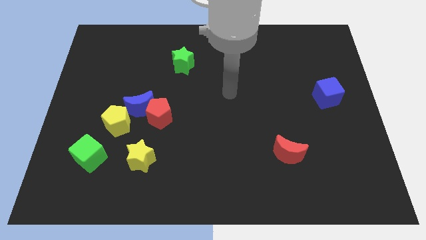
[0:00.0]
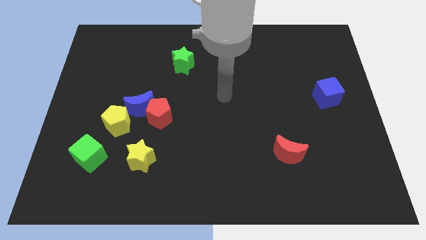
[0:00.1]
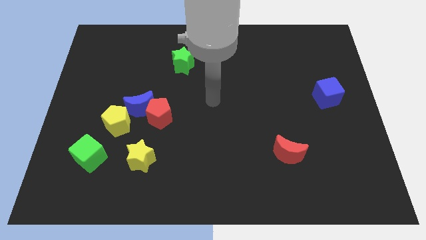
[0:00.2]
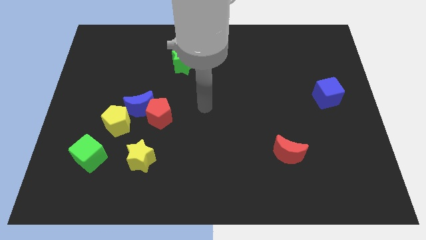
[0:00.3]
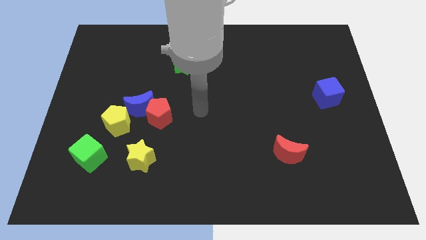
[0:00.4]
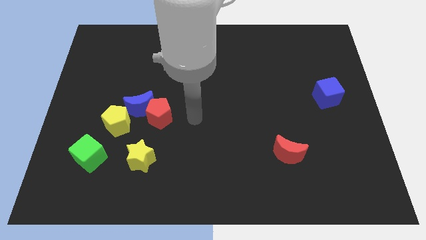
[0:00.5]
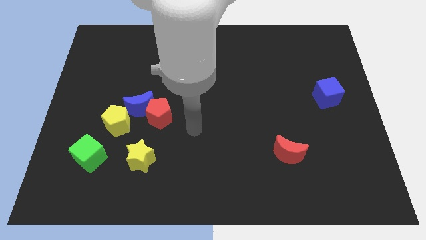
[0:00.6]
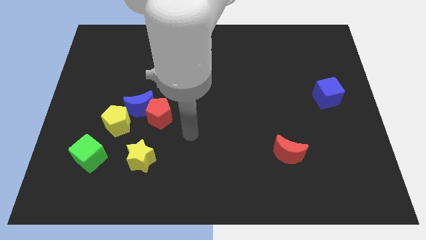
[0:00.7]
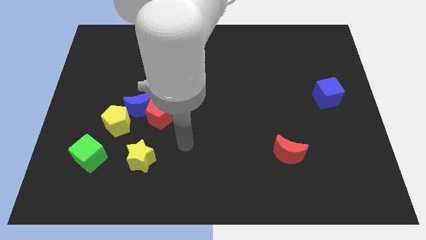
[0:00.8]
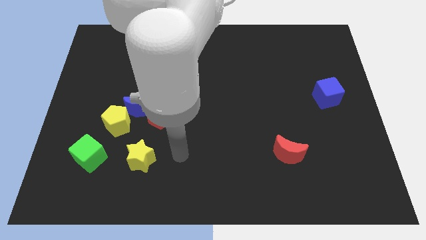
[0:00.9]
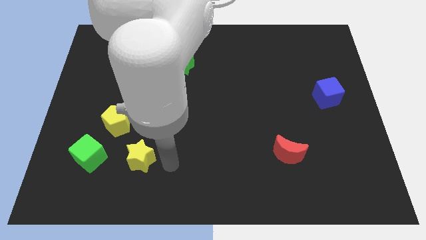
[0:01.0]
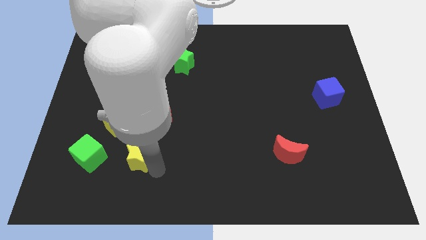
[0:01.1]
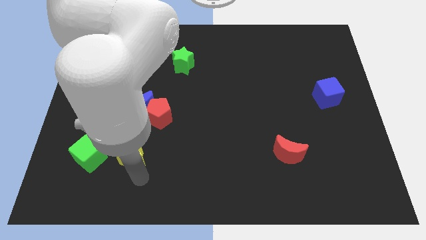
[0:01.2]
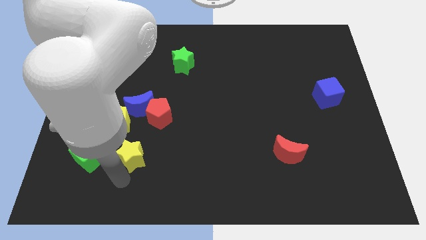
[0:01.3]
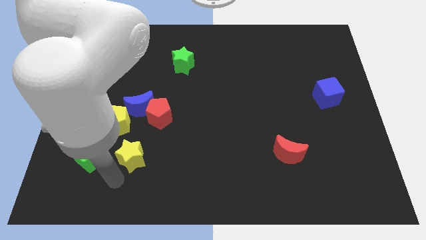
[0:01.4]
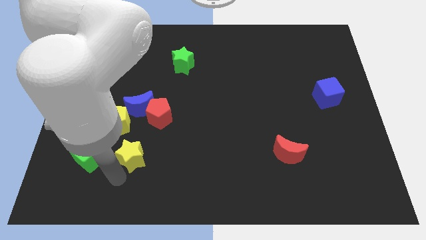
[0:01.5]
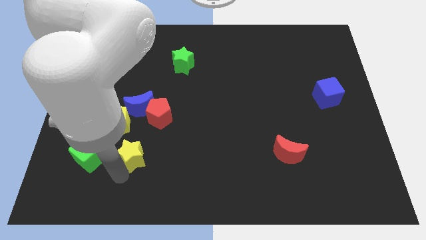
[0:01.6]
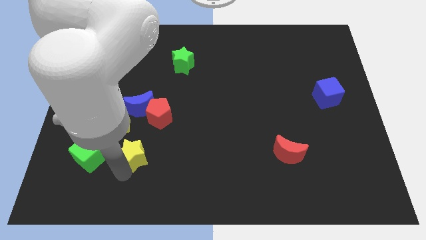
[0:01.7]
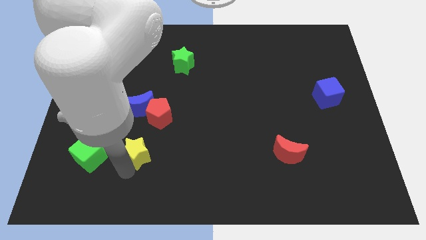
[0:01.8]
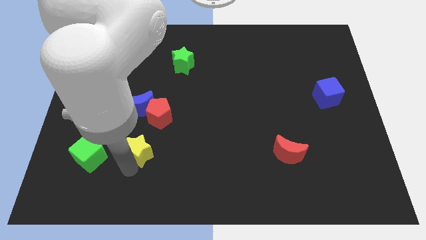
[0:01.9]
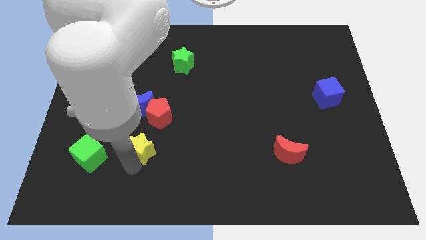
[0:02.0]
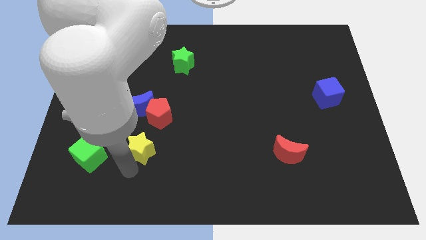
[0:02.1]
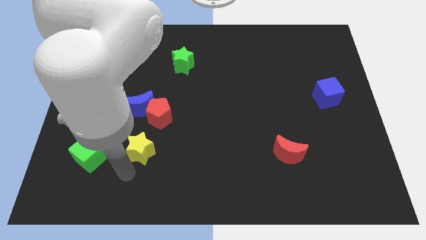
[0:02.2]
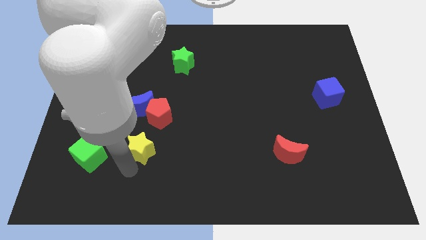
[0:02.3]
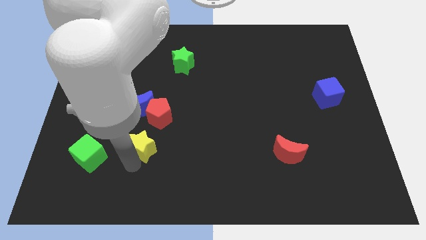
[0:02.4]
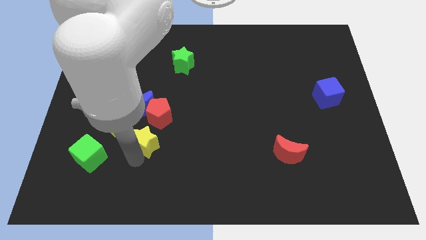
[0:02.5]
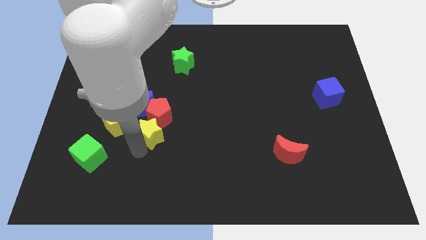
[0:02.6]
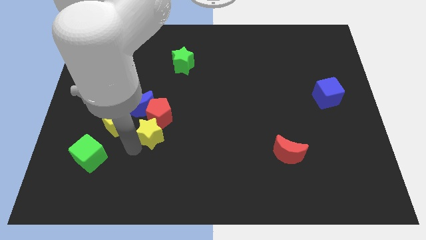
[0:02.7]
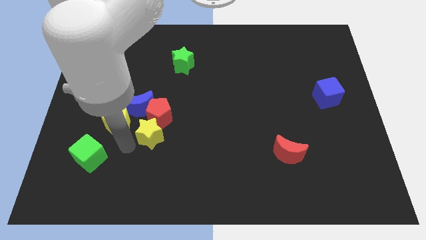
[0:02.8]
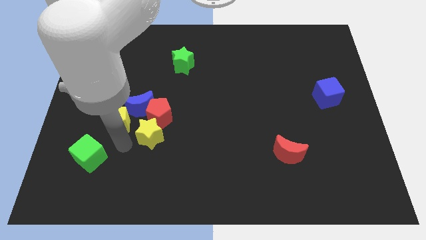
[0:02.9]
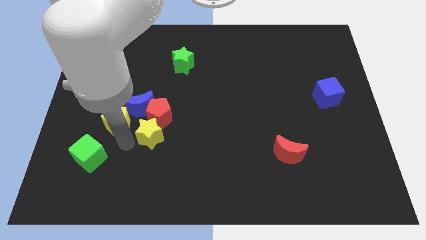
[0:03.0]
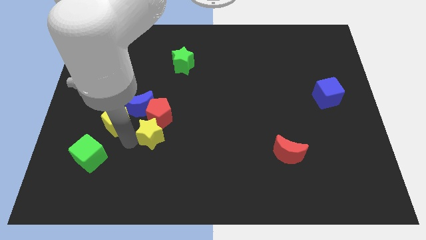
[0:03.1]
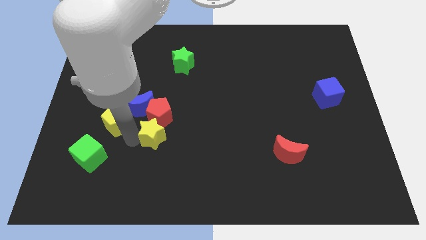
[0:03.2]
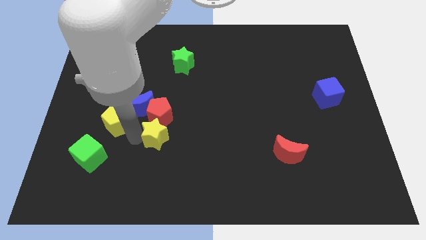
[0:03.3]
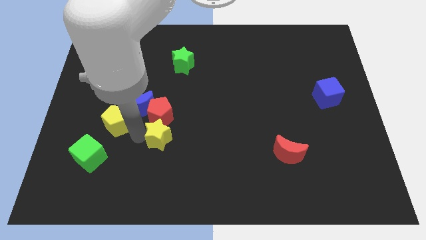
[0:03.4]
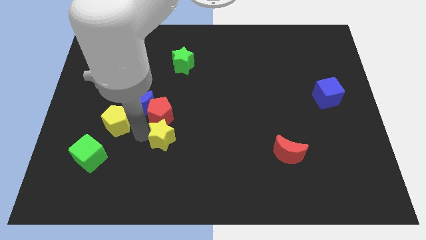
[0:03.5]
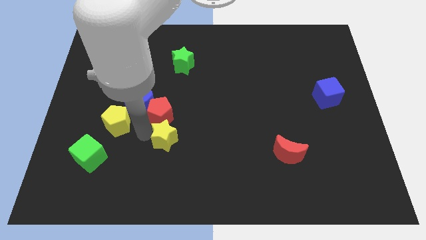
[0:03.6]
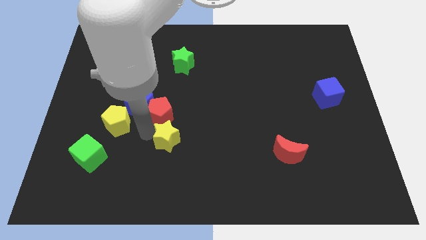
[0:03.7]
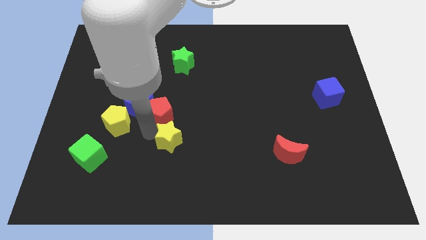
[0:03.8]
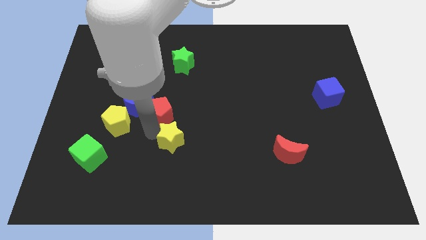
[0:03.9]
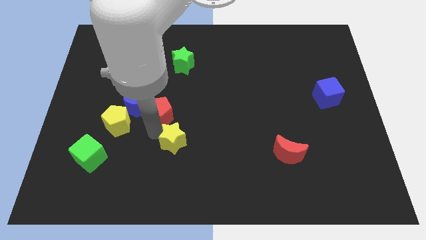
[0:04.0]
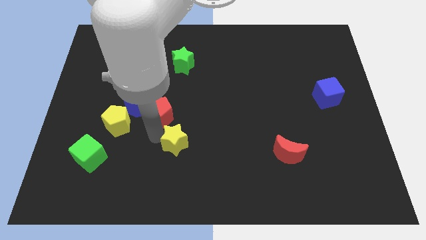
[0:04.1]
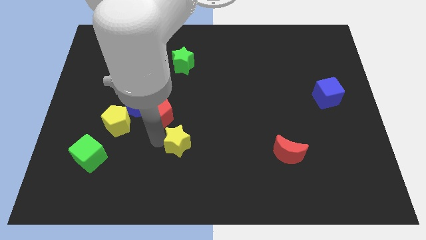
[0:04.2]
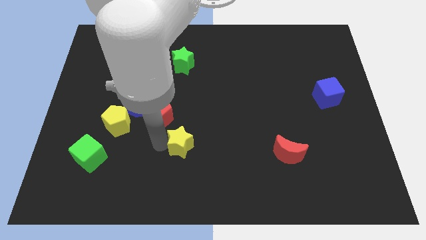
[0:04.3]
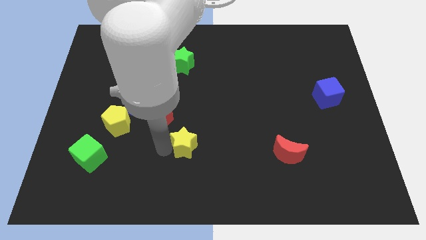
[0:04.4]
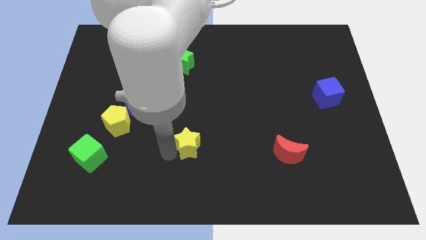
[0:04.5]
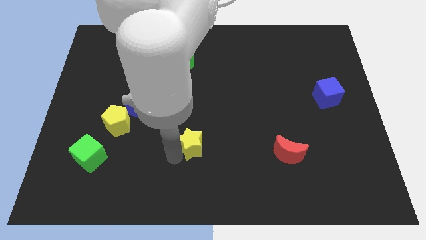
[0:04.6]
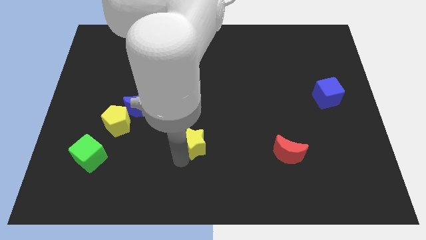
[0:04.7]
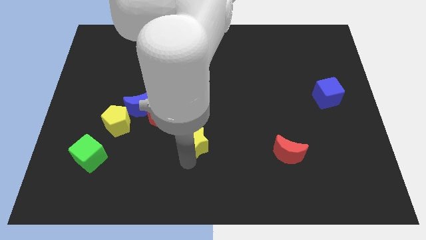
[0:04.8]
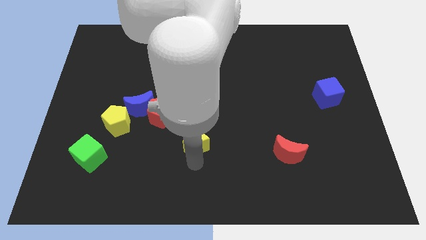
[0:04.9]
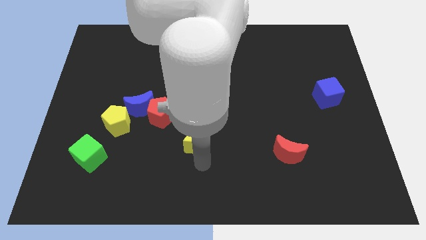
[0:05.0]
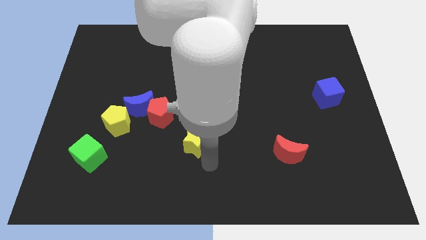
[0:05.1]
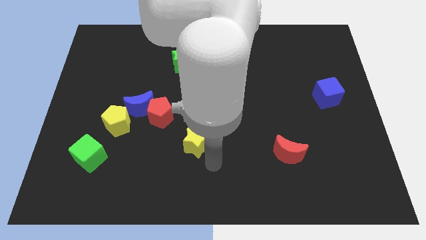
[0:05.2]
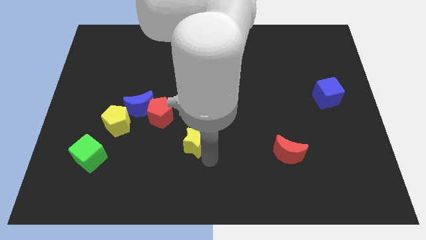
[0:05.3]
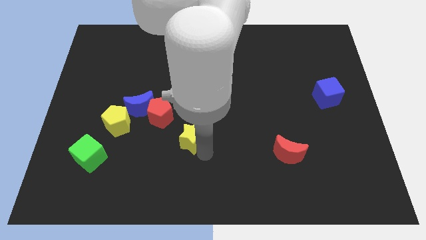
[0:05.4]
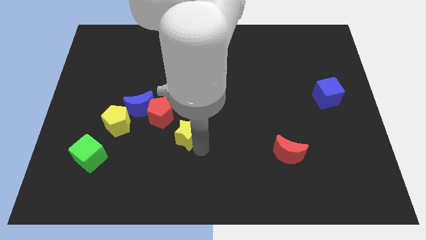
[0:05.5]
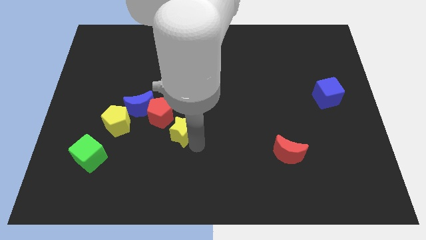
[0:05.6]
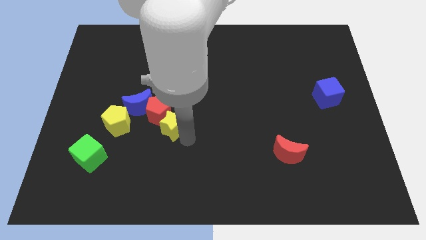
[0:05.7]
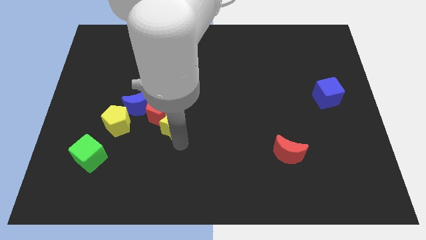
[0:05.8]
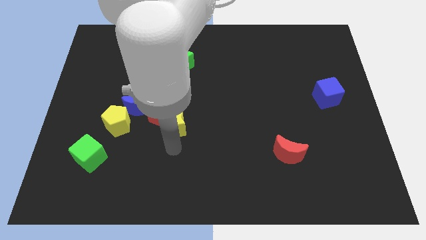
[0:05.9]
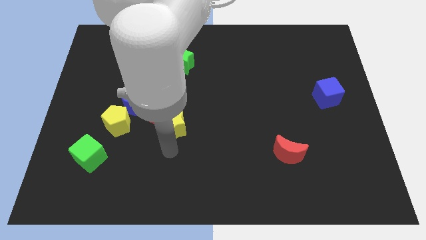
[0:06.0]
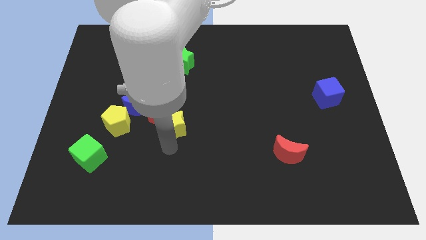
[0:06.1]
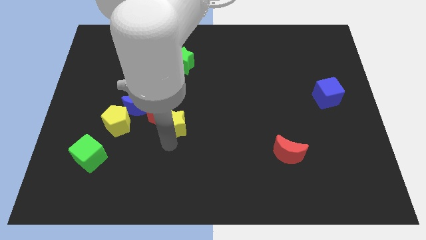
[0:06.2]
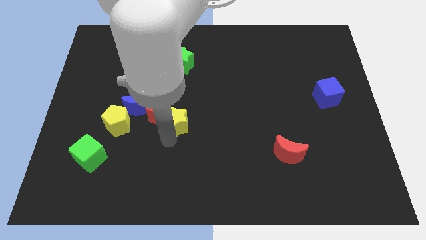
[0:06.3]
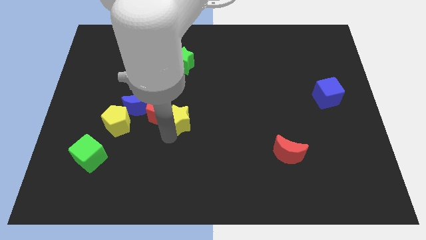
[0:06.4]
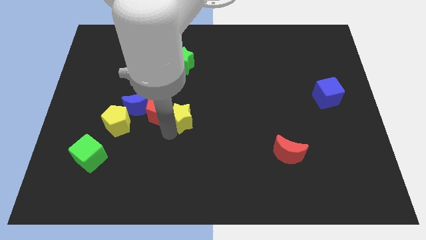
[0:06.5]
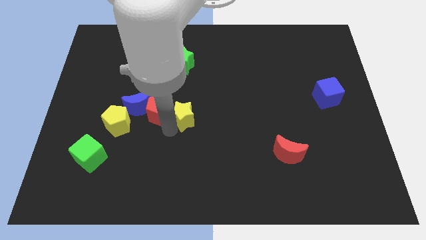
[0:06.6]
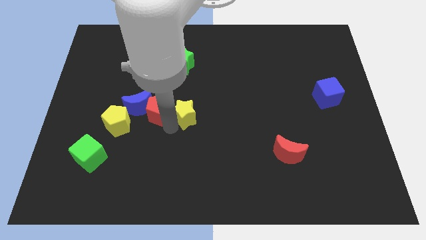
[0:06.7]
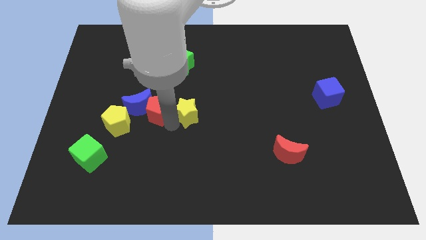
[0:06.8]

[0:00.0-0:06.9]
move the yellow star below the green star
